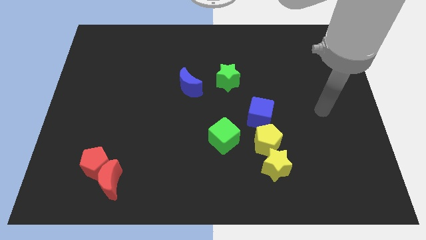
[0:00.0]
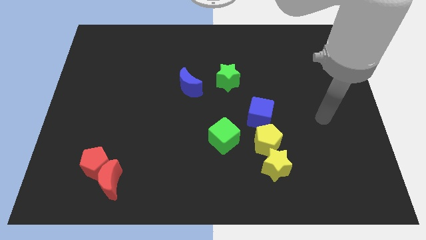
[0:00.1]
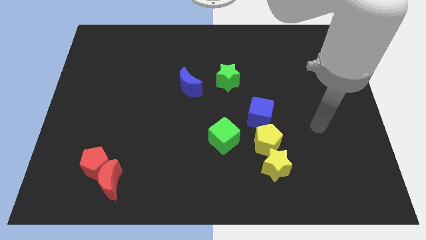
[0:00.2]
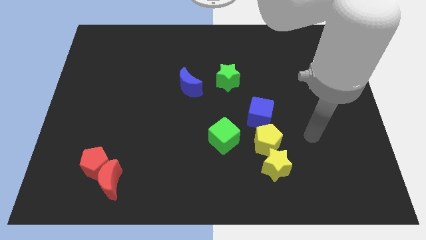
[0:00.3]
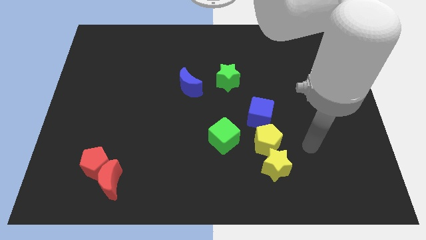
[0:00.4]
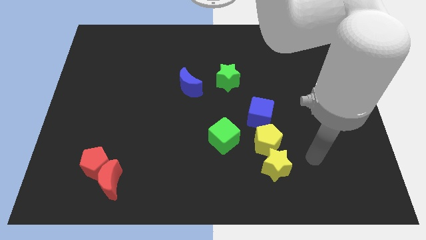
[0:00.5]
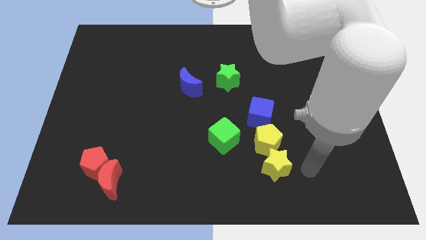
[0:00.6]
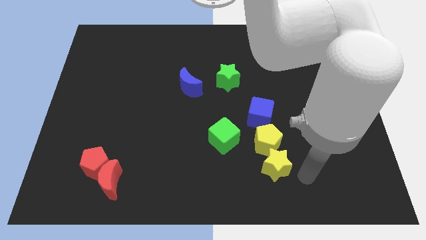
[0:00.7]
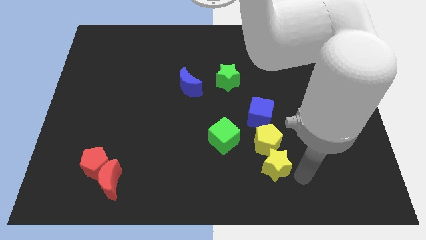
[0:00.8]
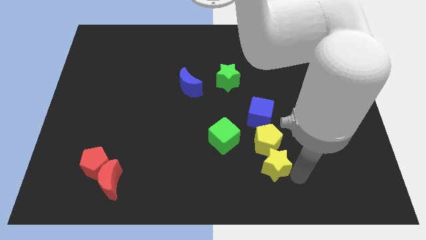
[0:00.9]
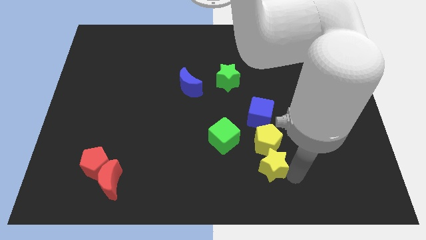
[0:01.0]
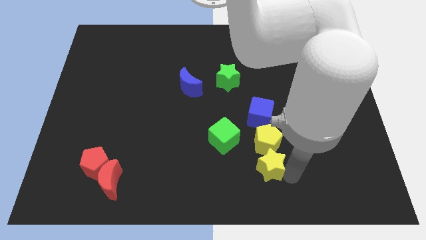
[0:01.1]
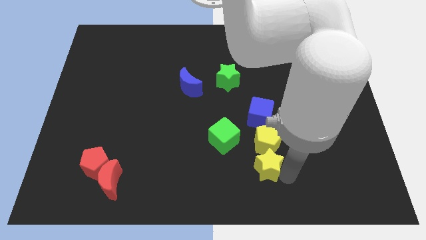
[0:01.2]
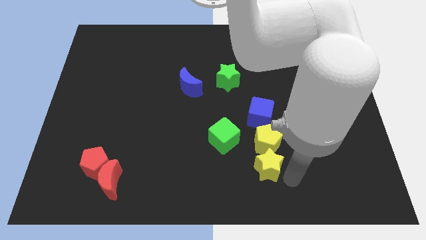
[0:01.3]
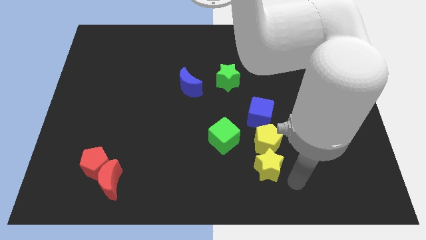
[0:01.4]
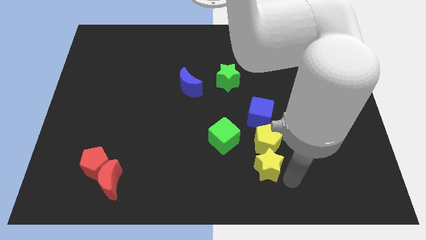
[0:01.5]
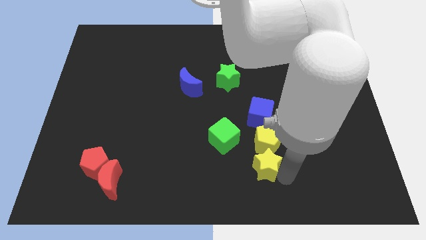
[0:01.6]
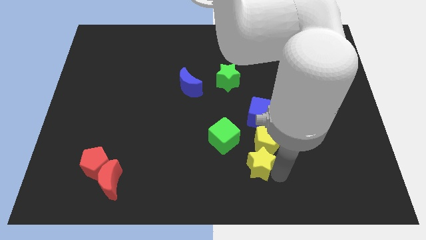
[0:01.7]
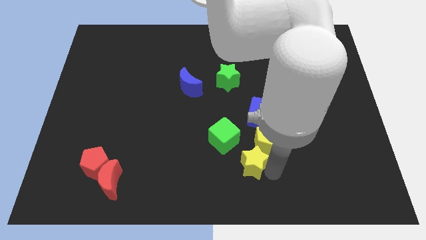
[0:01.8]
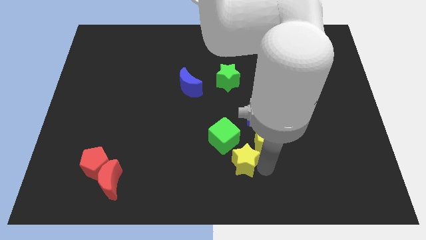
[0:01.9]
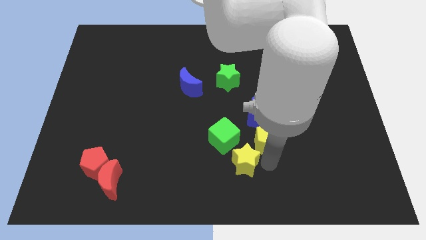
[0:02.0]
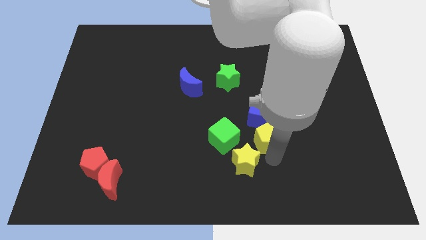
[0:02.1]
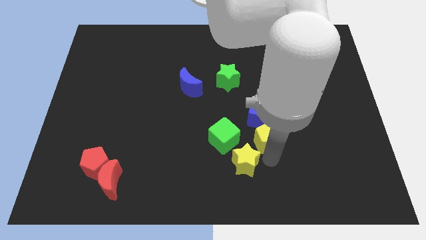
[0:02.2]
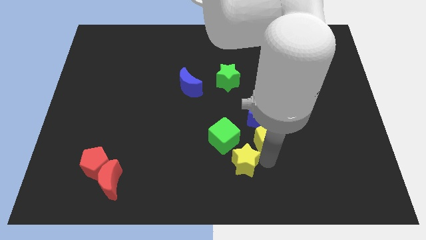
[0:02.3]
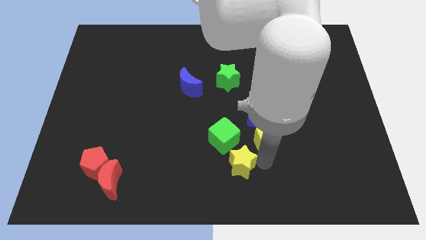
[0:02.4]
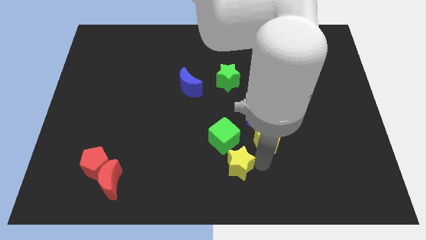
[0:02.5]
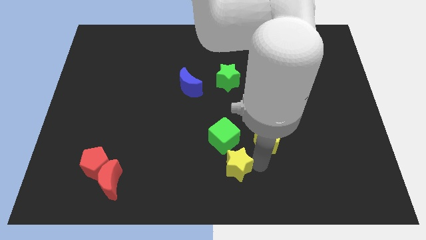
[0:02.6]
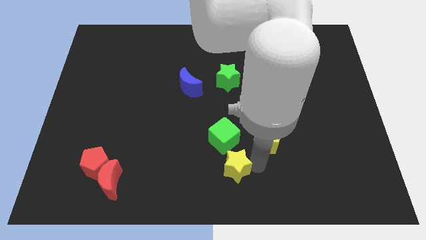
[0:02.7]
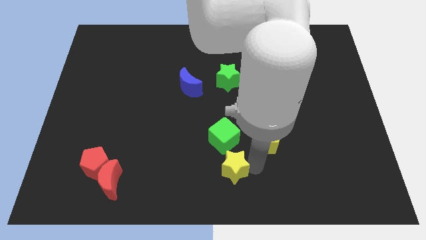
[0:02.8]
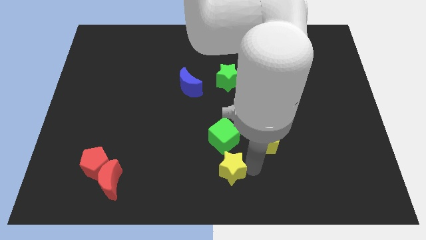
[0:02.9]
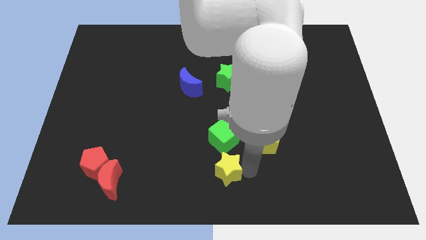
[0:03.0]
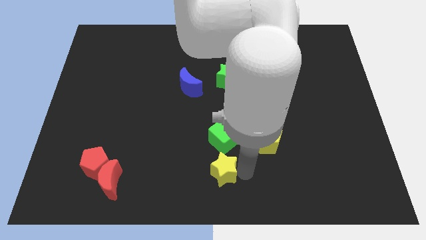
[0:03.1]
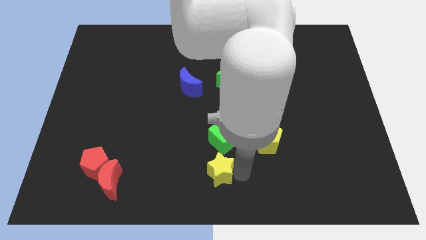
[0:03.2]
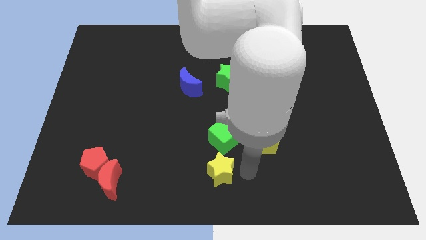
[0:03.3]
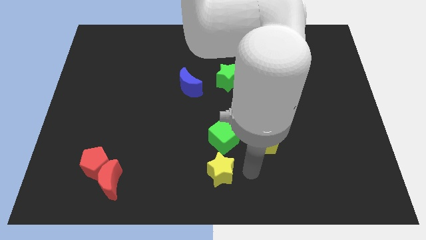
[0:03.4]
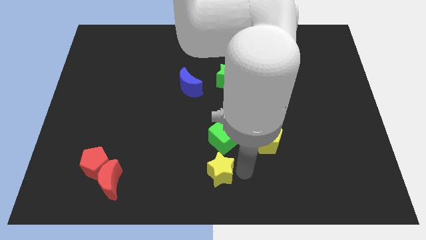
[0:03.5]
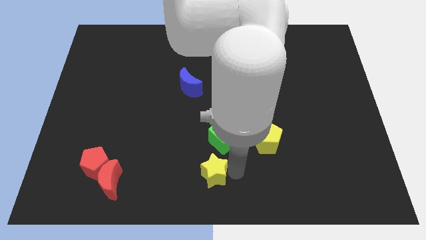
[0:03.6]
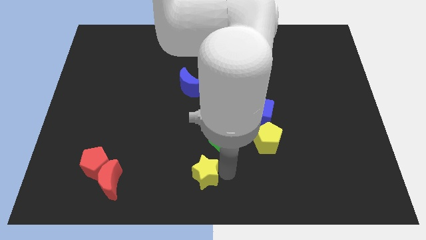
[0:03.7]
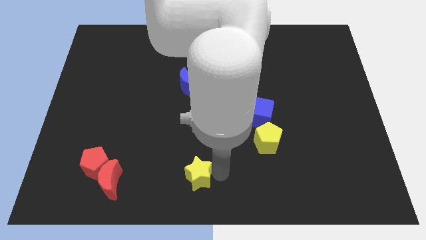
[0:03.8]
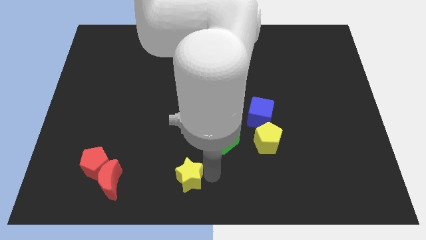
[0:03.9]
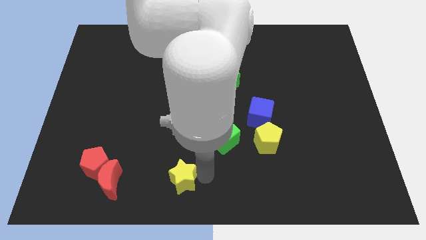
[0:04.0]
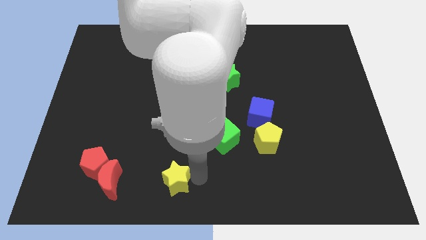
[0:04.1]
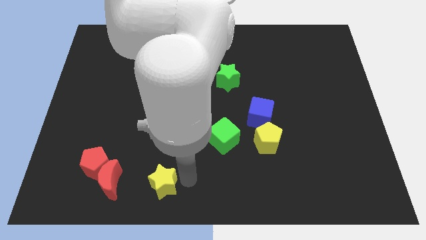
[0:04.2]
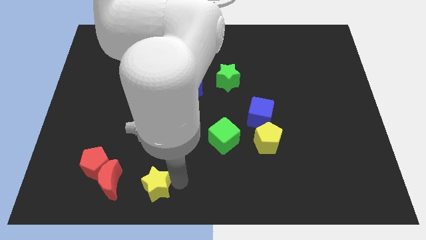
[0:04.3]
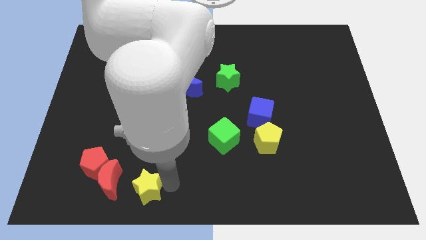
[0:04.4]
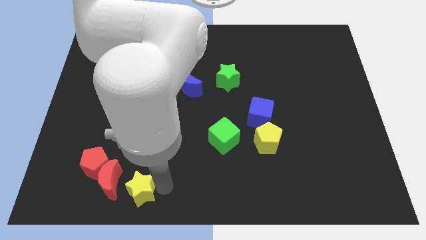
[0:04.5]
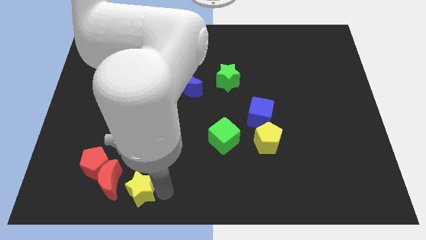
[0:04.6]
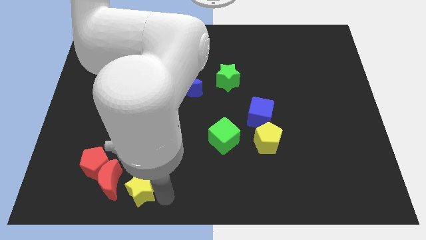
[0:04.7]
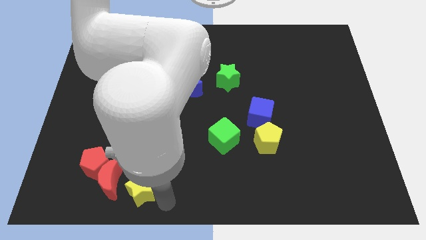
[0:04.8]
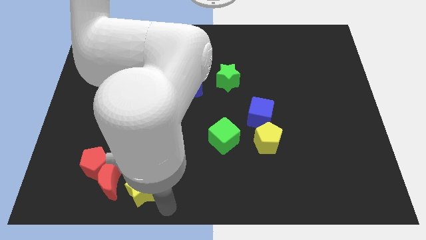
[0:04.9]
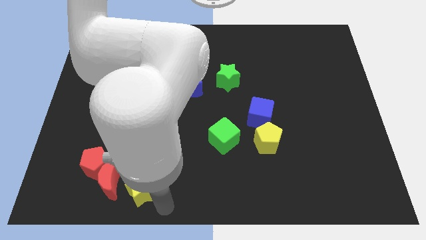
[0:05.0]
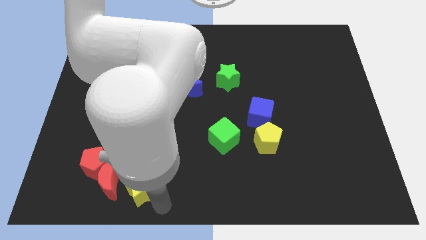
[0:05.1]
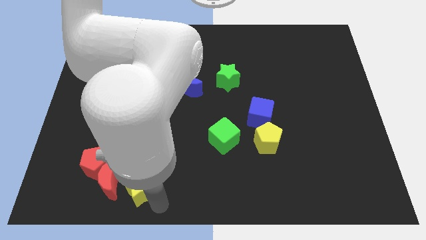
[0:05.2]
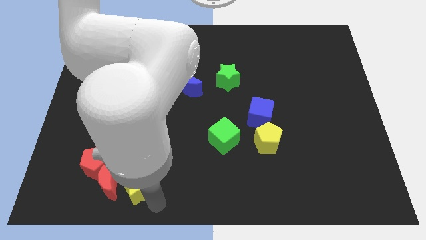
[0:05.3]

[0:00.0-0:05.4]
put the yellow star towards the red moon

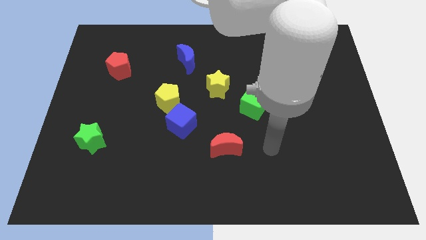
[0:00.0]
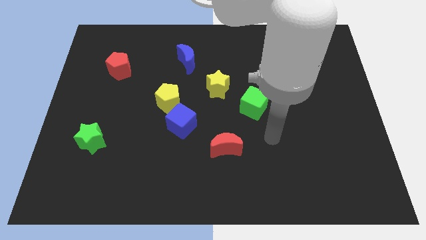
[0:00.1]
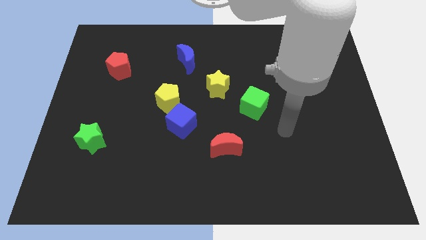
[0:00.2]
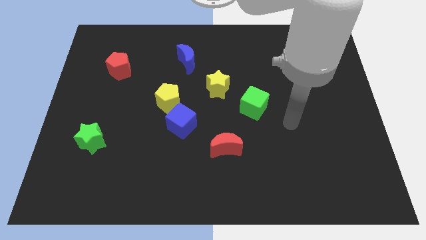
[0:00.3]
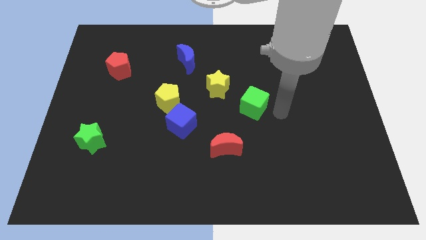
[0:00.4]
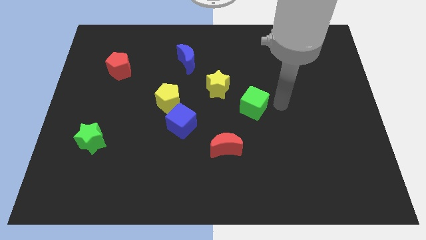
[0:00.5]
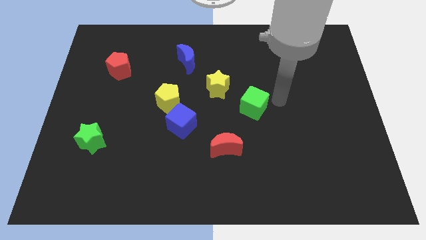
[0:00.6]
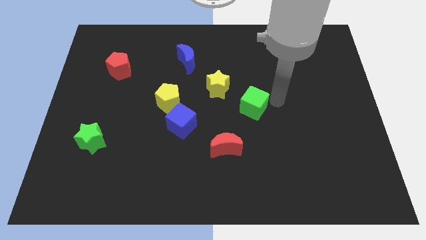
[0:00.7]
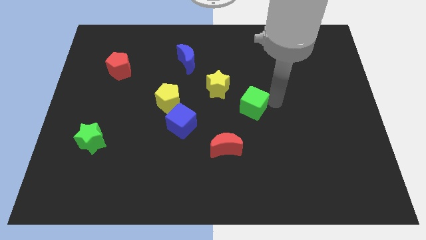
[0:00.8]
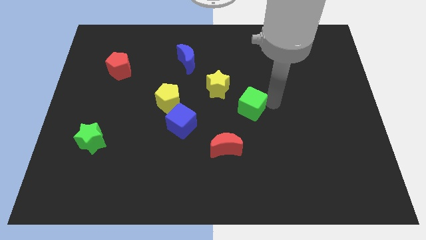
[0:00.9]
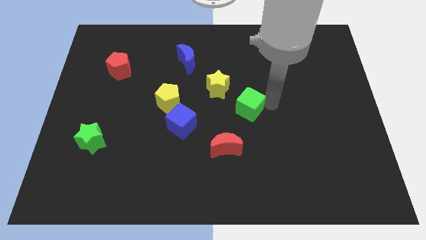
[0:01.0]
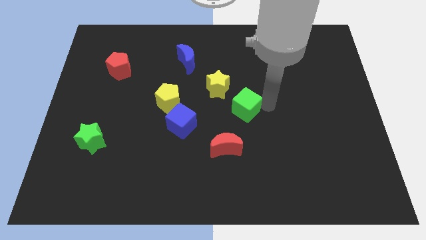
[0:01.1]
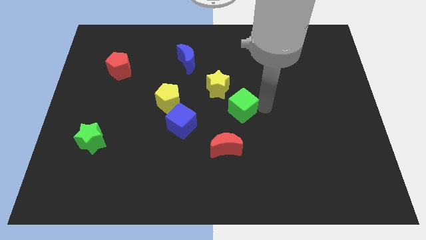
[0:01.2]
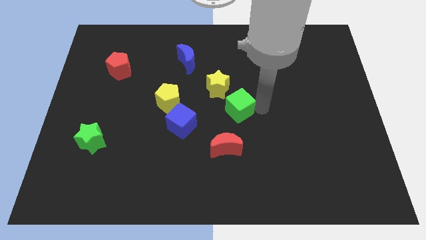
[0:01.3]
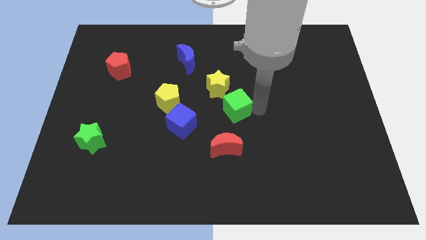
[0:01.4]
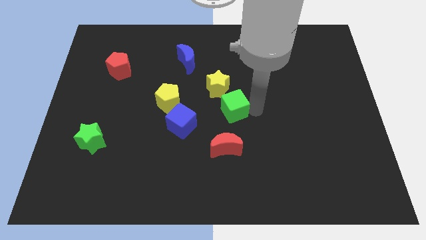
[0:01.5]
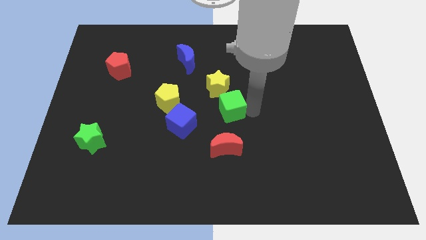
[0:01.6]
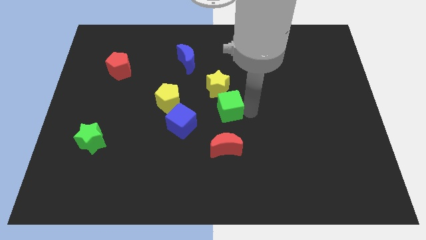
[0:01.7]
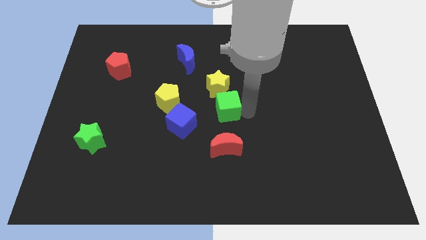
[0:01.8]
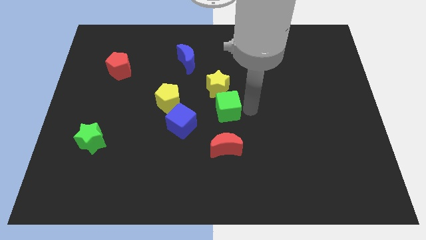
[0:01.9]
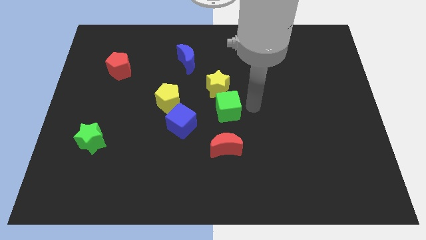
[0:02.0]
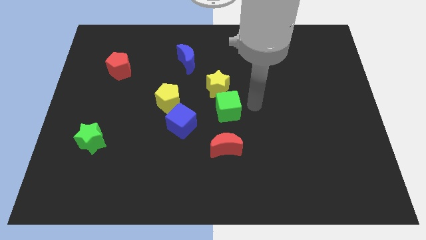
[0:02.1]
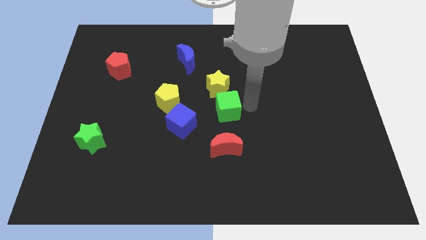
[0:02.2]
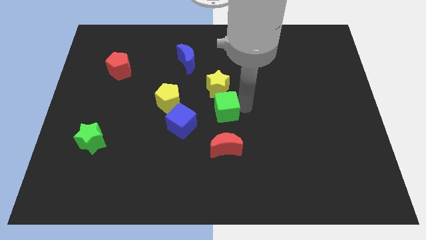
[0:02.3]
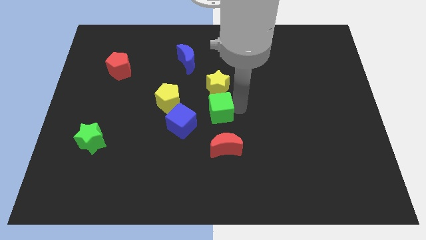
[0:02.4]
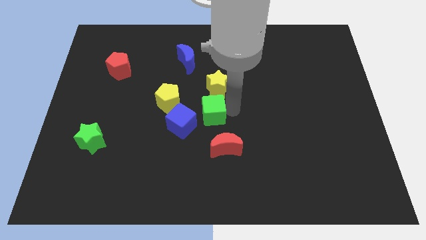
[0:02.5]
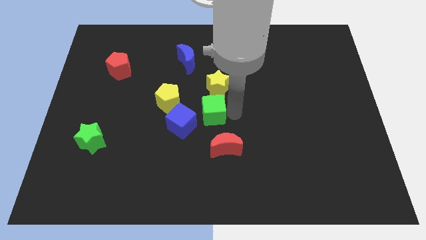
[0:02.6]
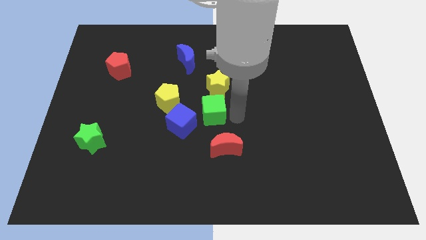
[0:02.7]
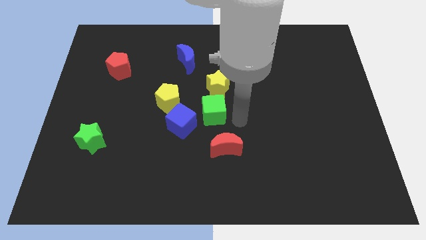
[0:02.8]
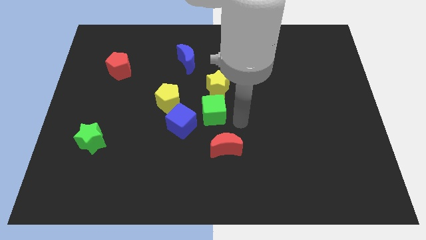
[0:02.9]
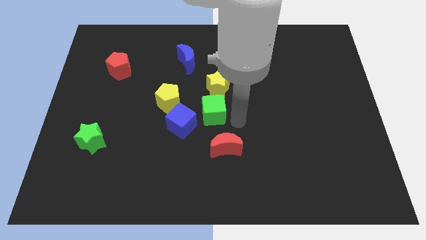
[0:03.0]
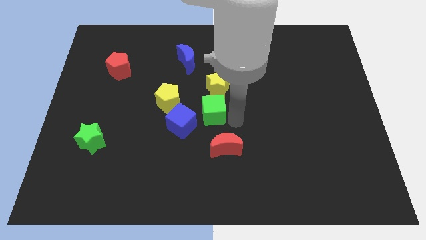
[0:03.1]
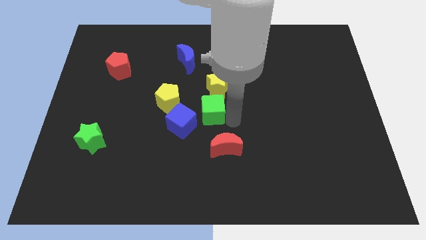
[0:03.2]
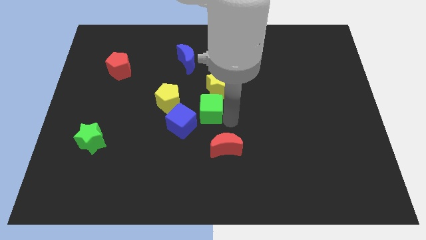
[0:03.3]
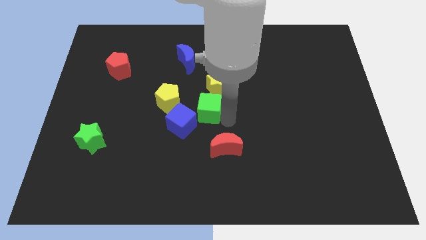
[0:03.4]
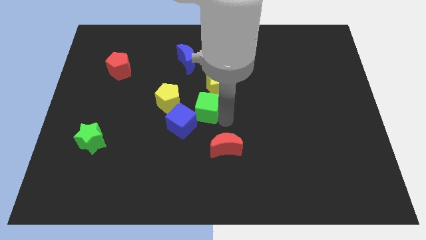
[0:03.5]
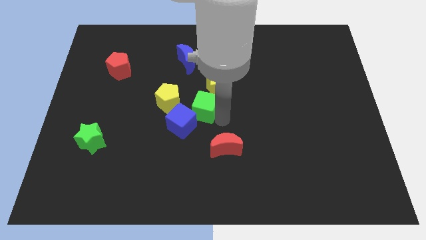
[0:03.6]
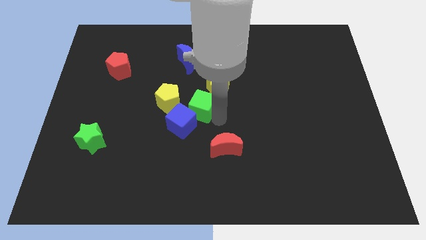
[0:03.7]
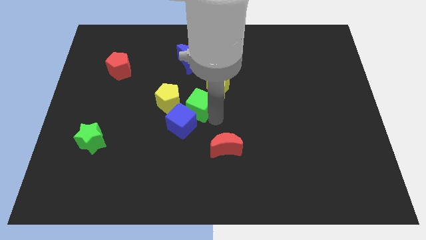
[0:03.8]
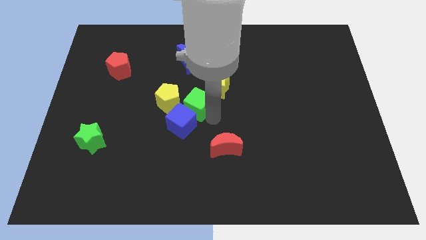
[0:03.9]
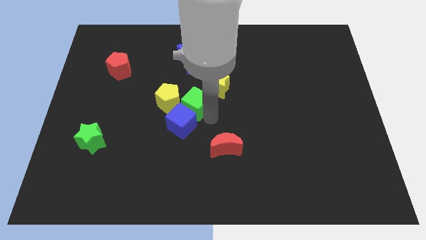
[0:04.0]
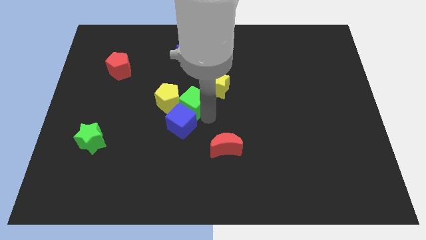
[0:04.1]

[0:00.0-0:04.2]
push the green cube next to the yellow pentagon
